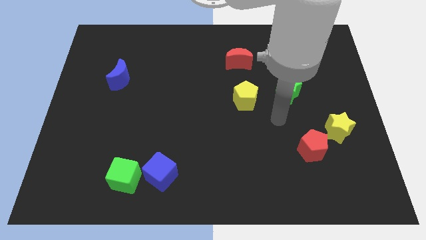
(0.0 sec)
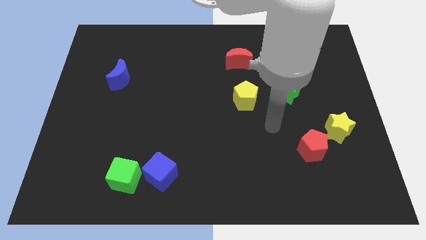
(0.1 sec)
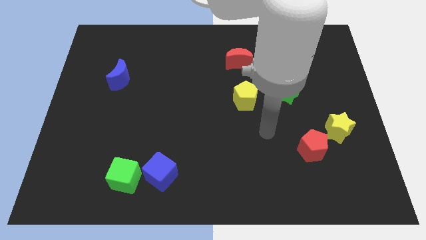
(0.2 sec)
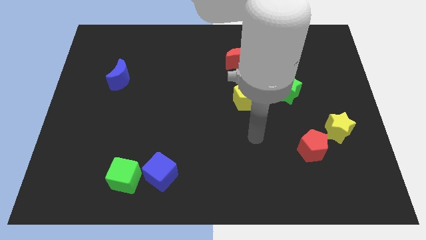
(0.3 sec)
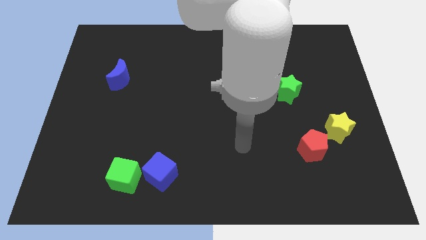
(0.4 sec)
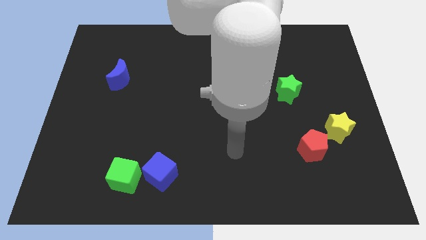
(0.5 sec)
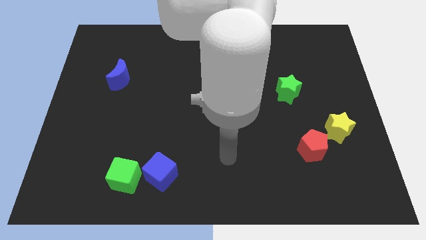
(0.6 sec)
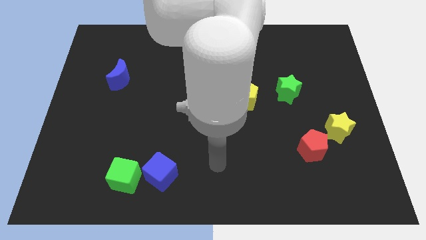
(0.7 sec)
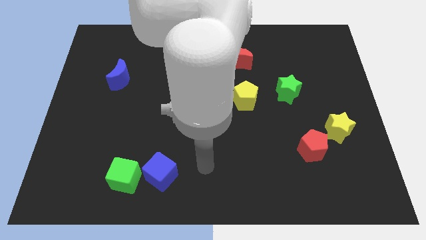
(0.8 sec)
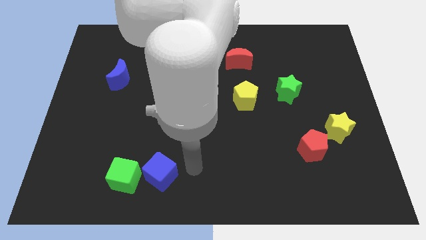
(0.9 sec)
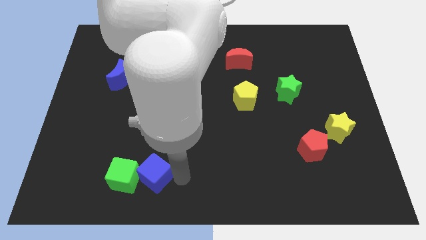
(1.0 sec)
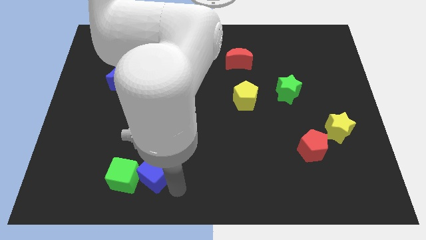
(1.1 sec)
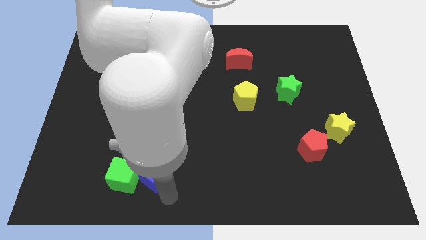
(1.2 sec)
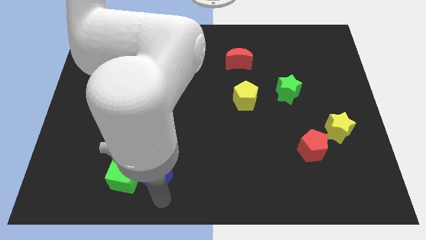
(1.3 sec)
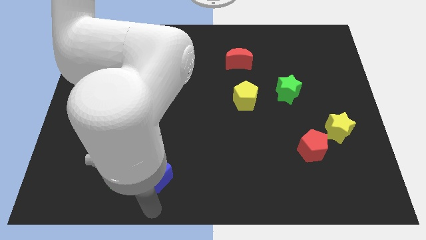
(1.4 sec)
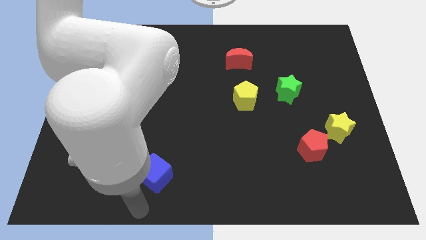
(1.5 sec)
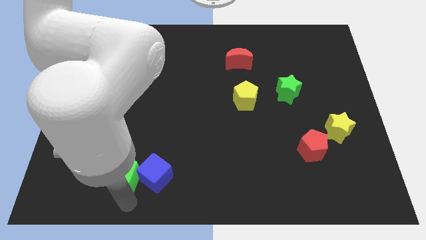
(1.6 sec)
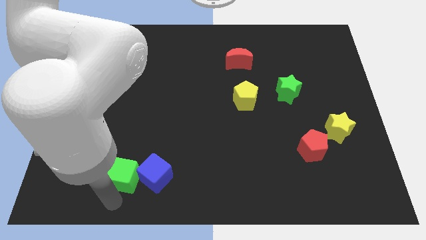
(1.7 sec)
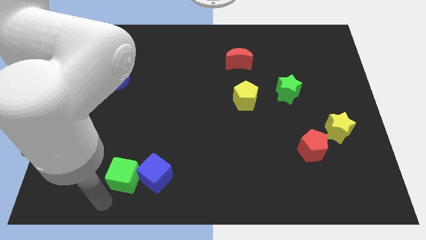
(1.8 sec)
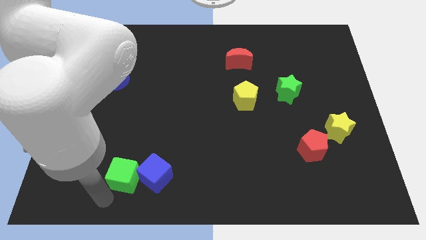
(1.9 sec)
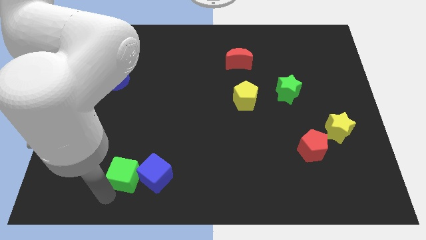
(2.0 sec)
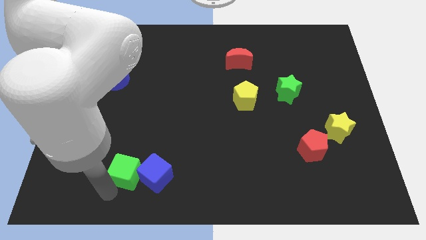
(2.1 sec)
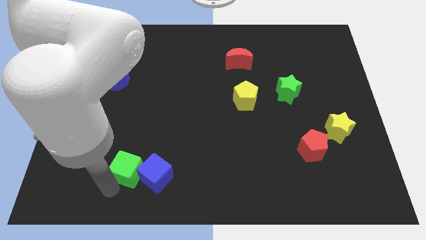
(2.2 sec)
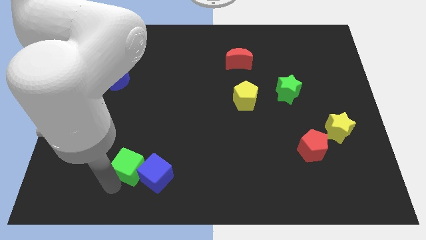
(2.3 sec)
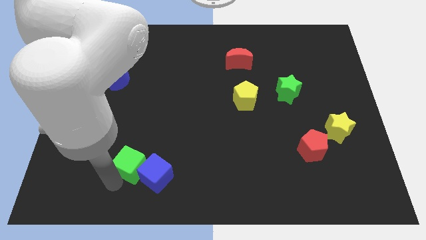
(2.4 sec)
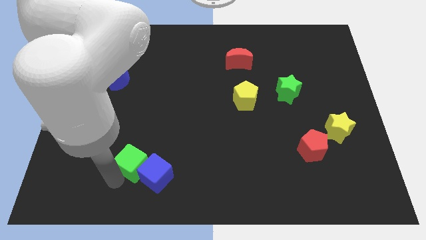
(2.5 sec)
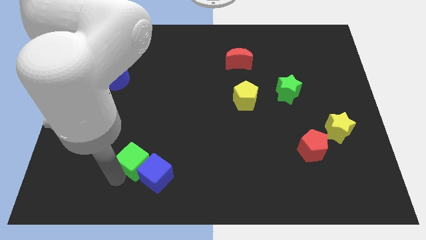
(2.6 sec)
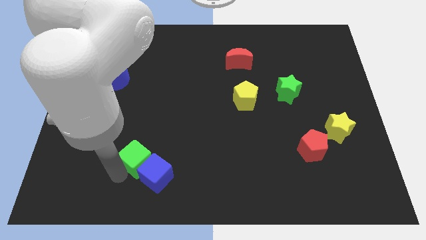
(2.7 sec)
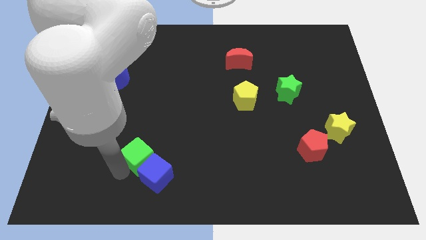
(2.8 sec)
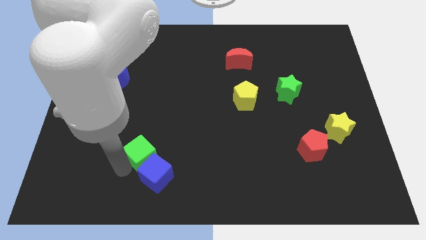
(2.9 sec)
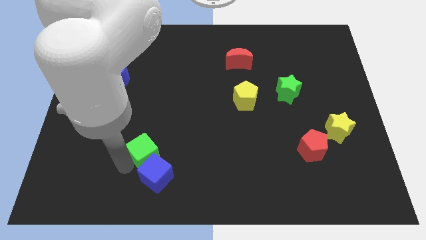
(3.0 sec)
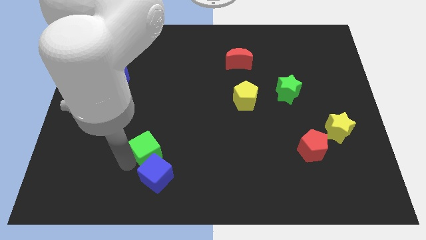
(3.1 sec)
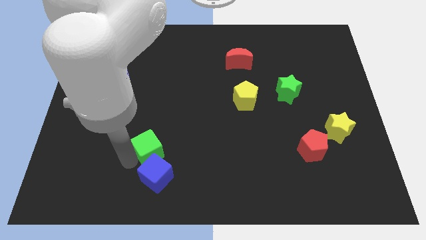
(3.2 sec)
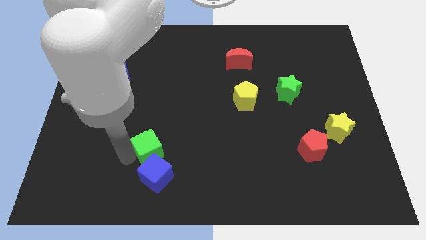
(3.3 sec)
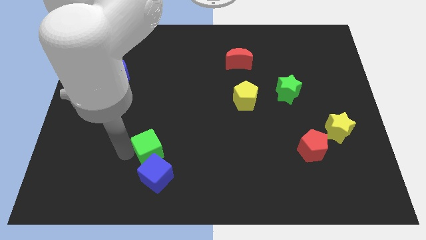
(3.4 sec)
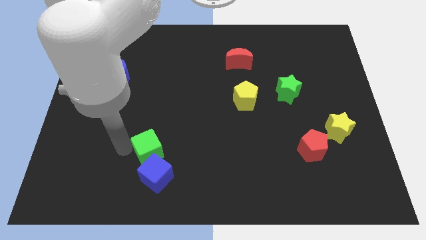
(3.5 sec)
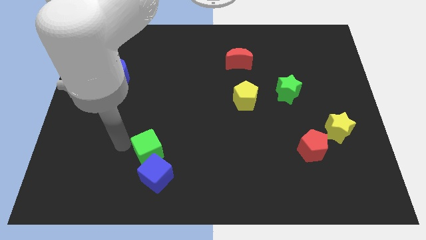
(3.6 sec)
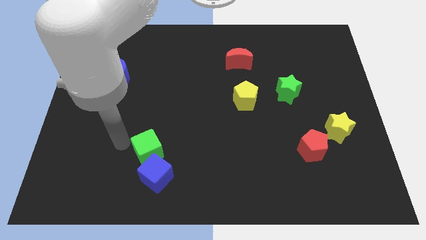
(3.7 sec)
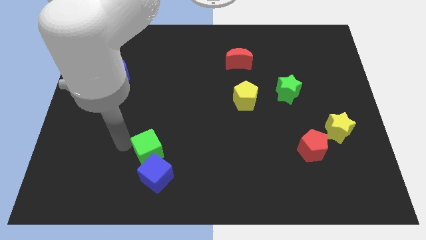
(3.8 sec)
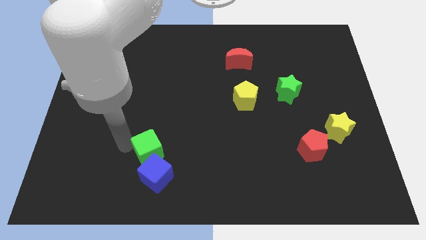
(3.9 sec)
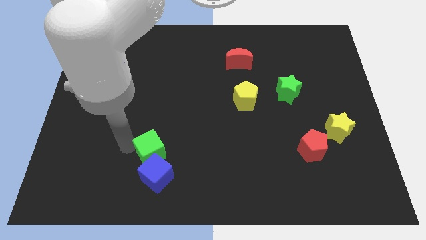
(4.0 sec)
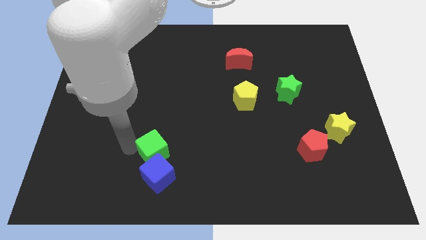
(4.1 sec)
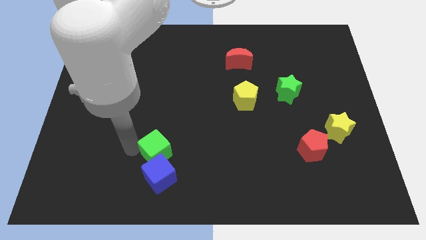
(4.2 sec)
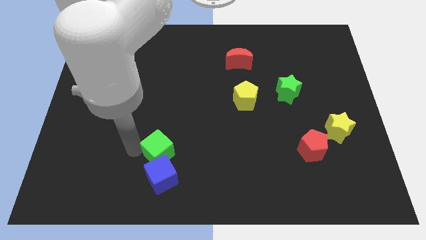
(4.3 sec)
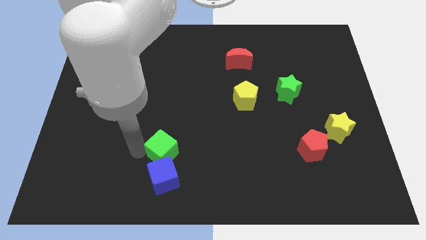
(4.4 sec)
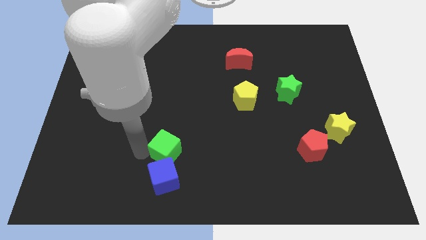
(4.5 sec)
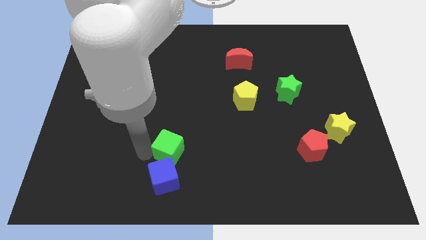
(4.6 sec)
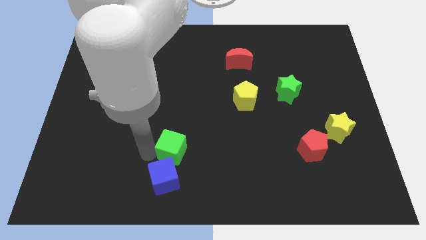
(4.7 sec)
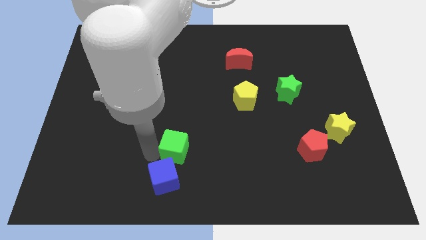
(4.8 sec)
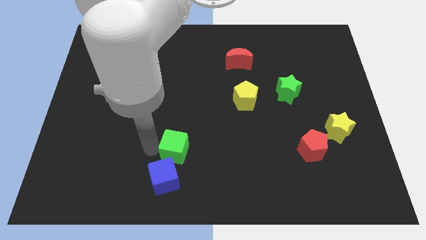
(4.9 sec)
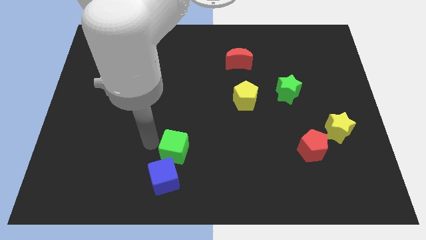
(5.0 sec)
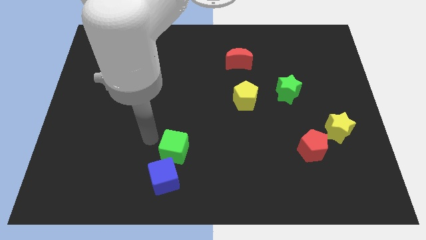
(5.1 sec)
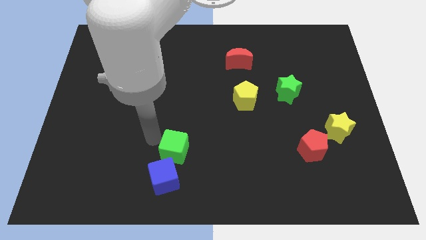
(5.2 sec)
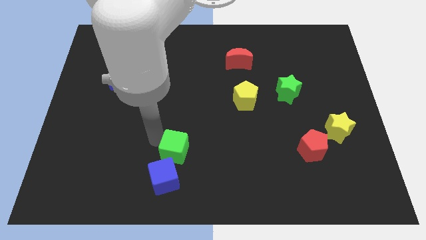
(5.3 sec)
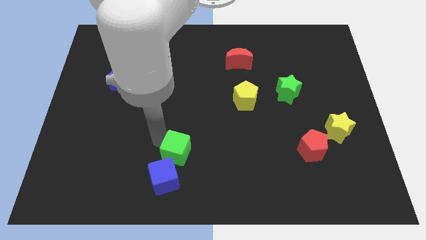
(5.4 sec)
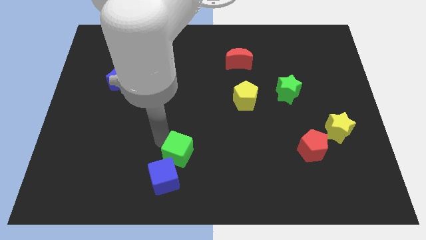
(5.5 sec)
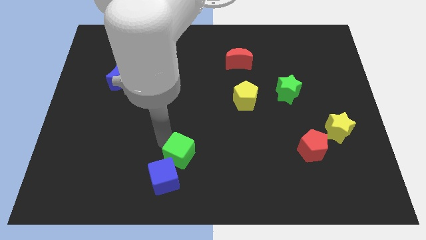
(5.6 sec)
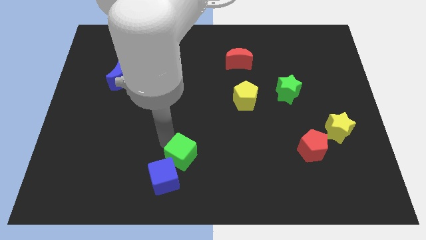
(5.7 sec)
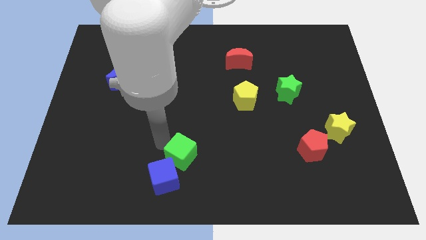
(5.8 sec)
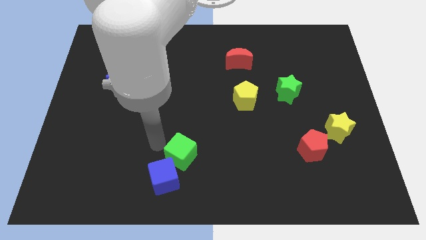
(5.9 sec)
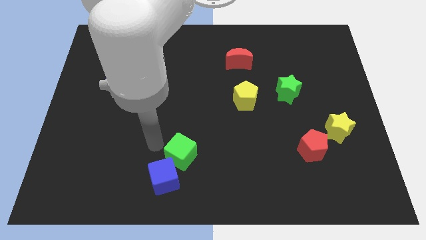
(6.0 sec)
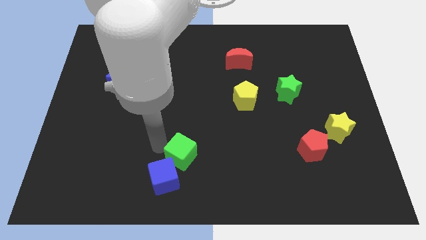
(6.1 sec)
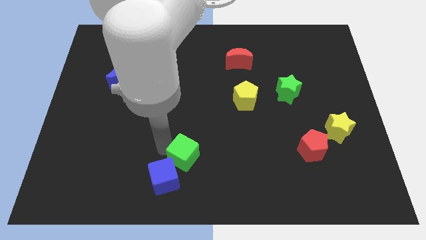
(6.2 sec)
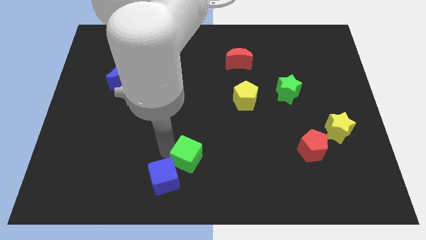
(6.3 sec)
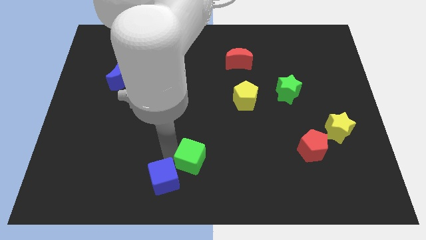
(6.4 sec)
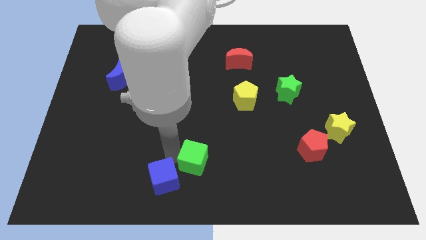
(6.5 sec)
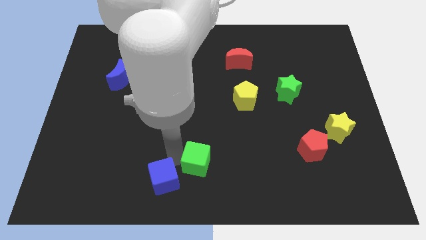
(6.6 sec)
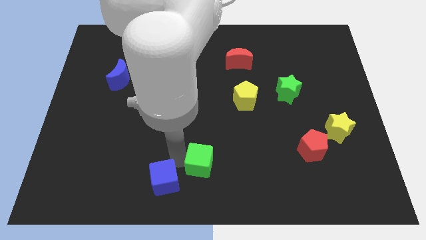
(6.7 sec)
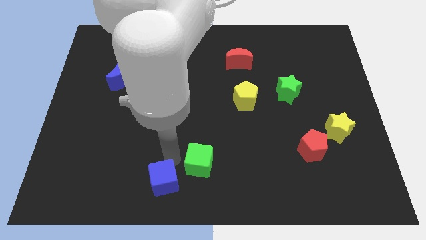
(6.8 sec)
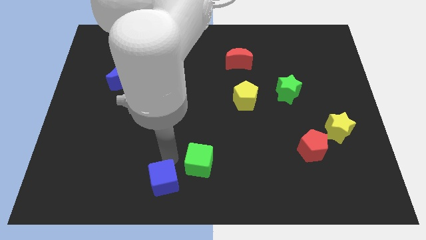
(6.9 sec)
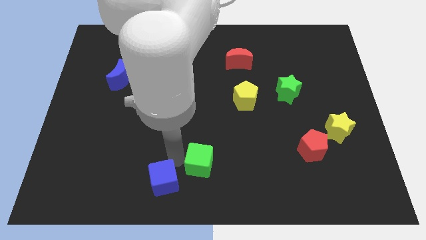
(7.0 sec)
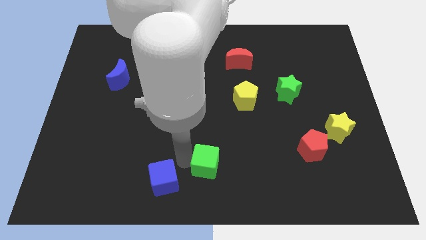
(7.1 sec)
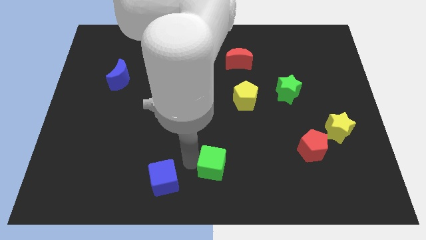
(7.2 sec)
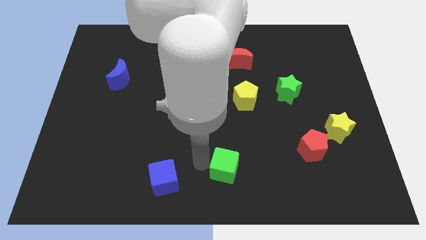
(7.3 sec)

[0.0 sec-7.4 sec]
move the green cube right

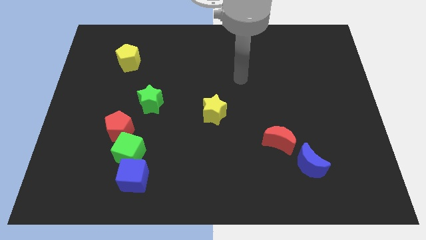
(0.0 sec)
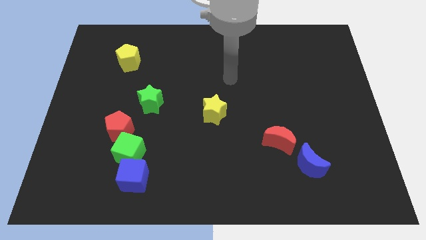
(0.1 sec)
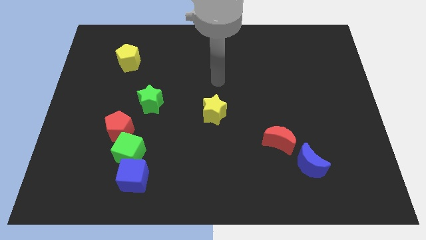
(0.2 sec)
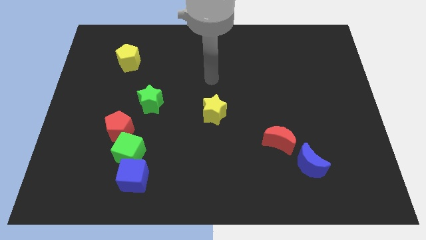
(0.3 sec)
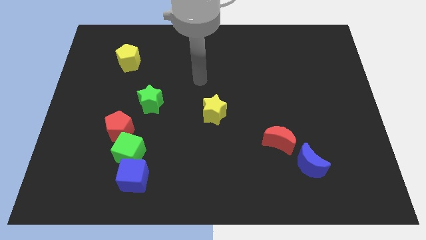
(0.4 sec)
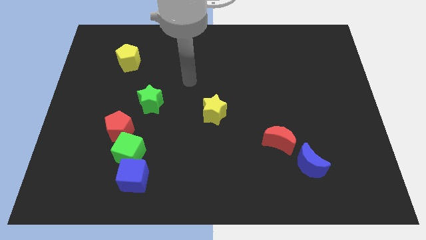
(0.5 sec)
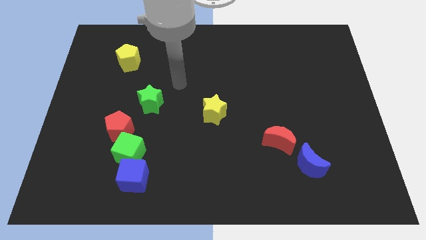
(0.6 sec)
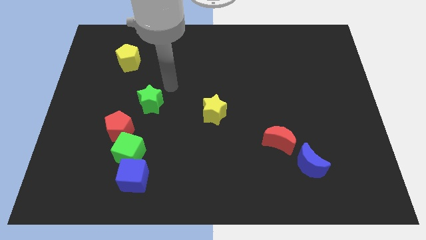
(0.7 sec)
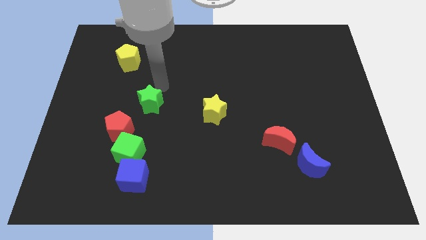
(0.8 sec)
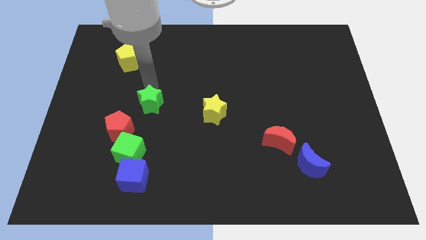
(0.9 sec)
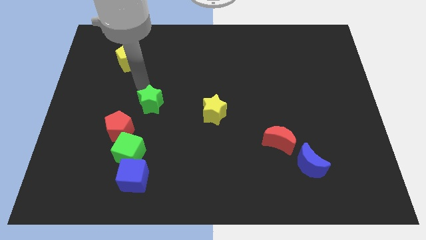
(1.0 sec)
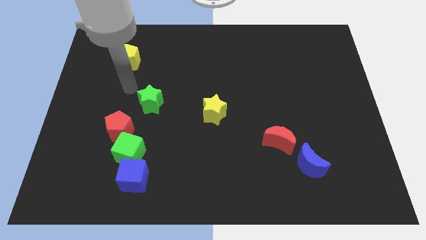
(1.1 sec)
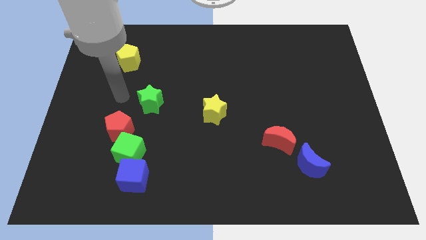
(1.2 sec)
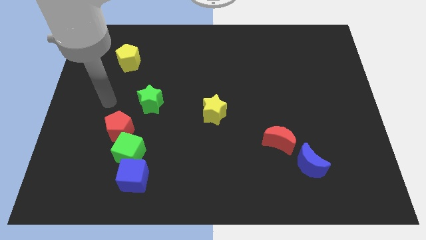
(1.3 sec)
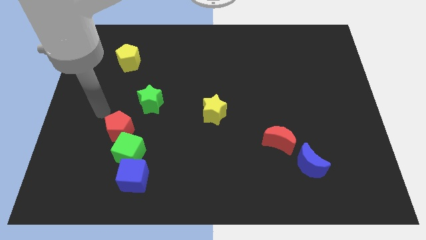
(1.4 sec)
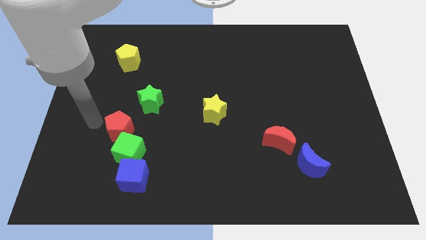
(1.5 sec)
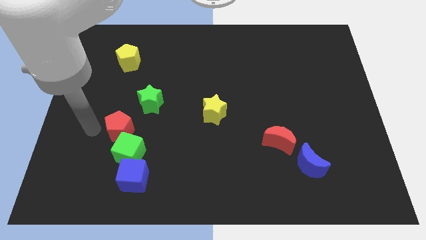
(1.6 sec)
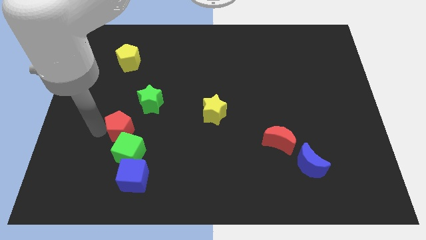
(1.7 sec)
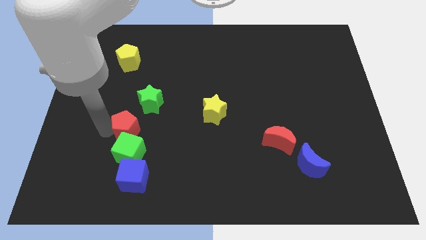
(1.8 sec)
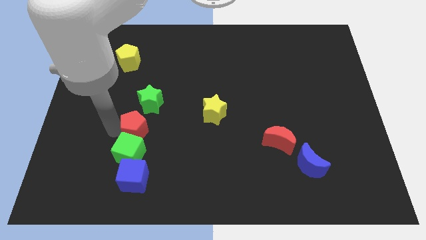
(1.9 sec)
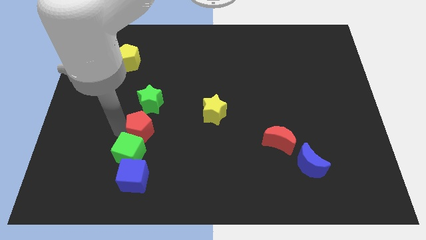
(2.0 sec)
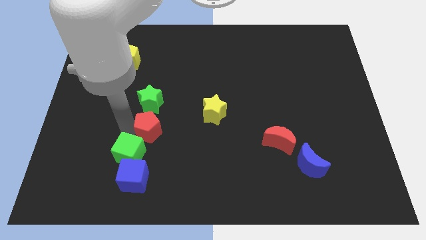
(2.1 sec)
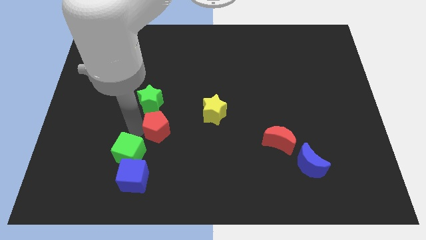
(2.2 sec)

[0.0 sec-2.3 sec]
slightly slide the red pentagon right
